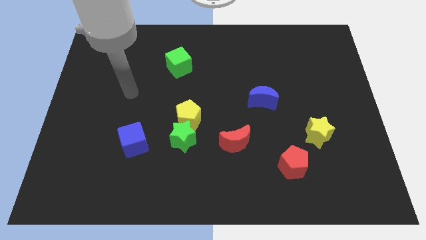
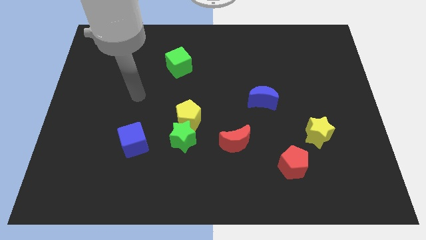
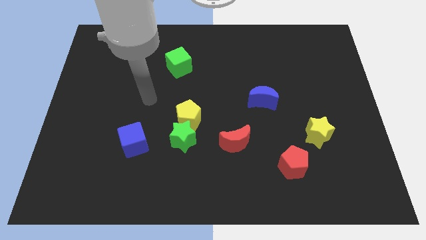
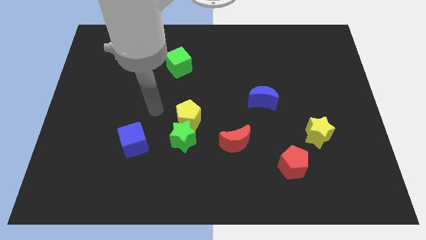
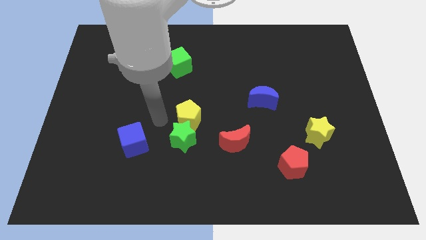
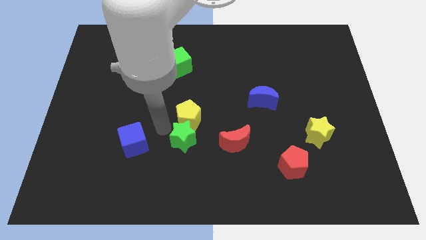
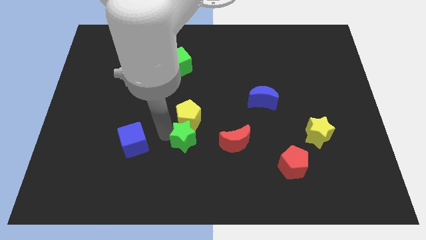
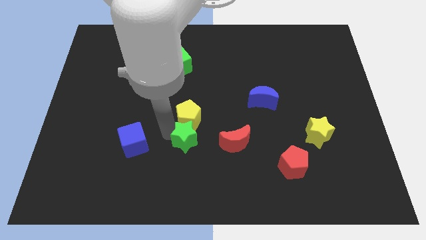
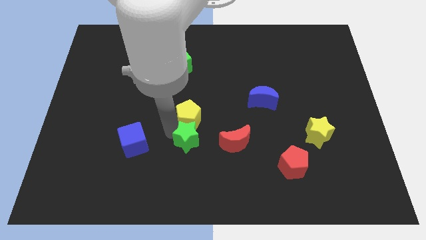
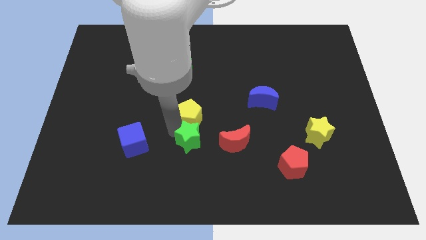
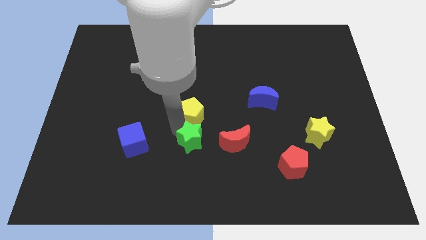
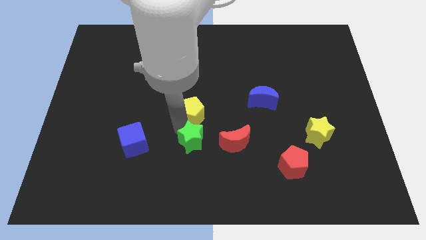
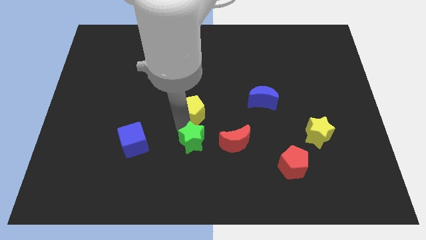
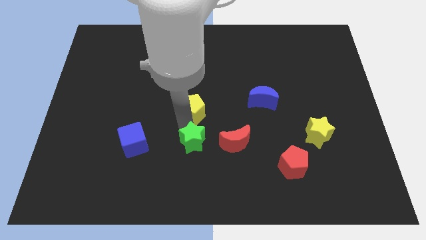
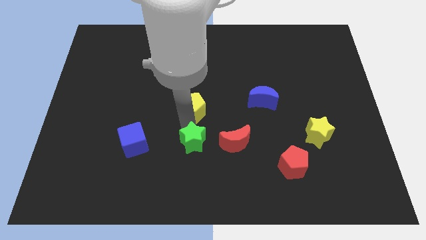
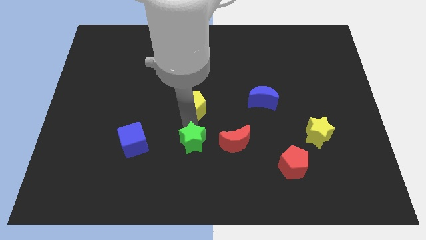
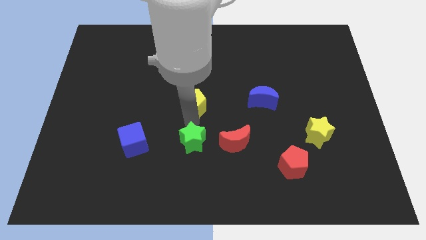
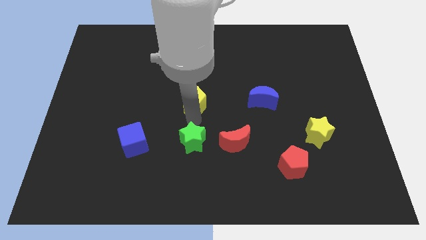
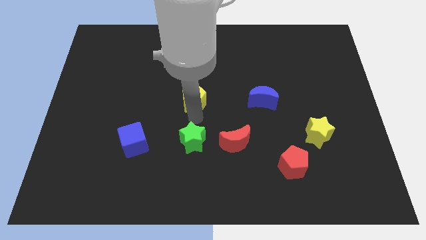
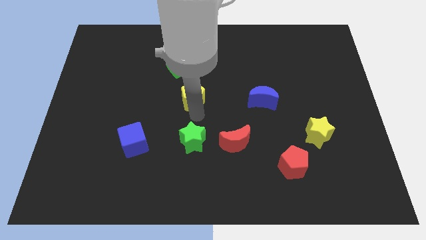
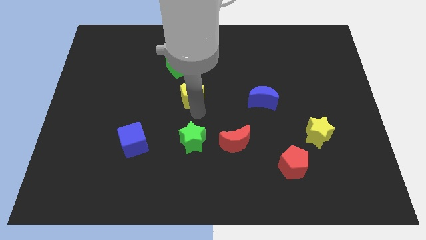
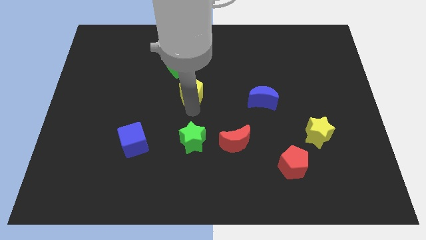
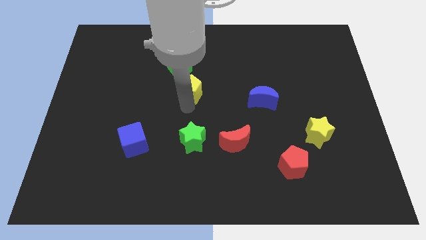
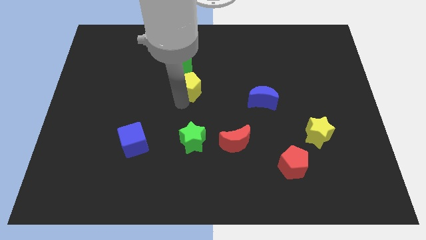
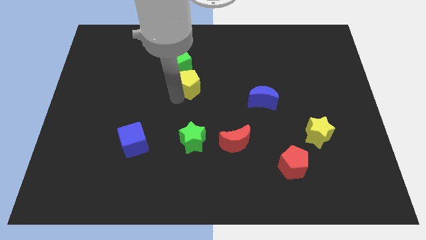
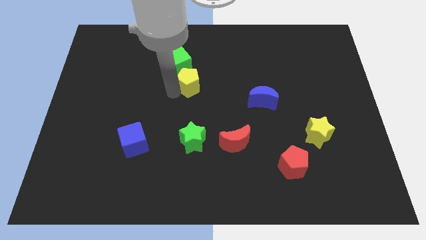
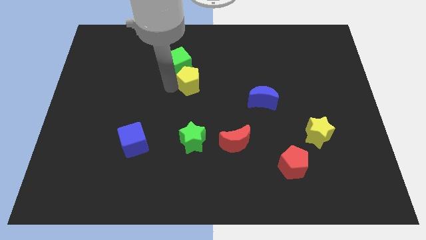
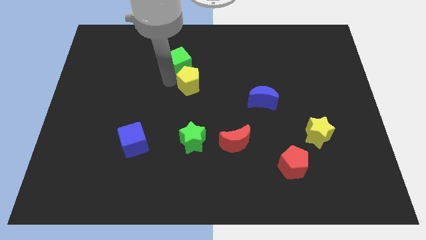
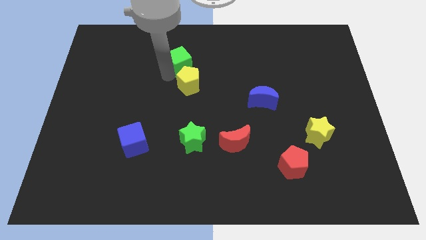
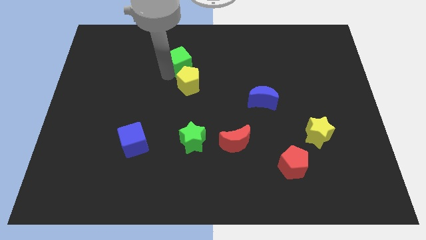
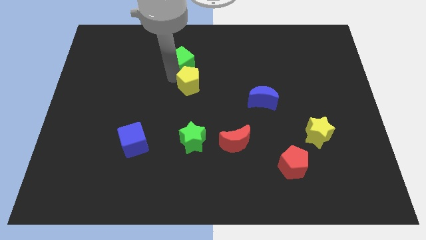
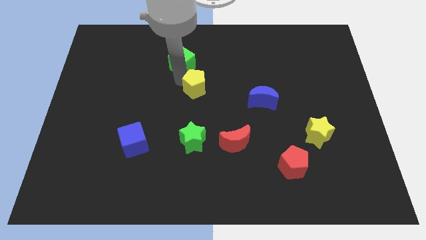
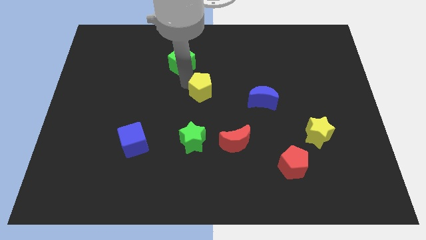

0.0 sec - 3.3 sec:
move the yellow pentagon slightly up and right diagonally

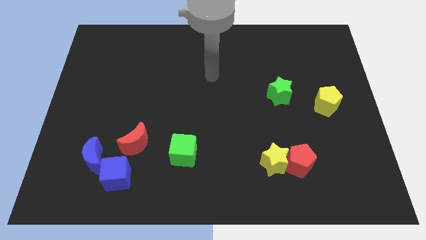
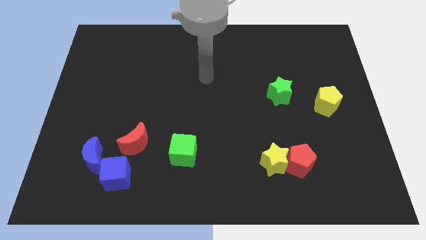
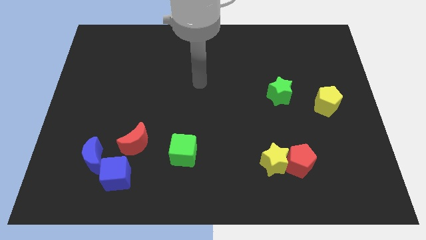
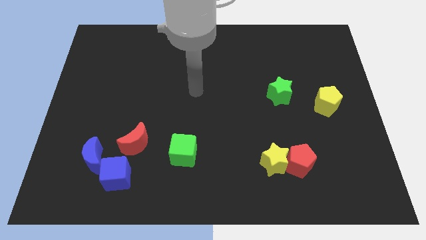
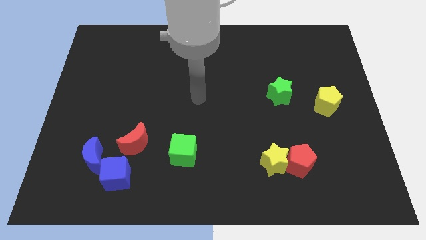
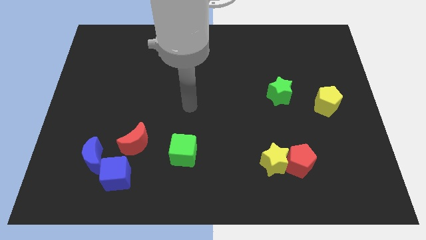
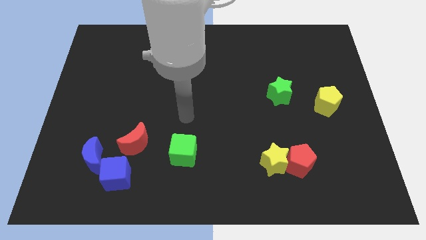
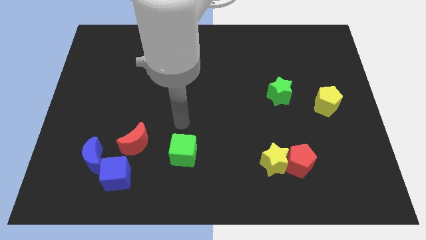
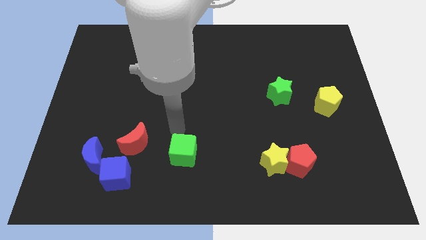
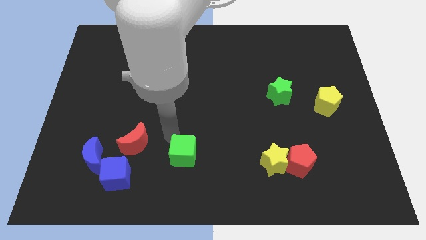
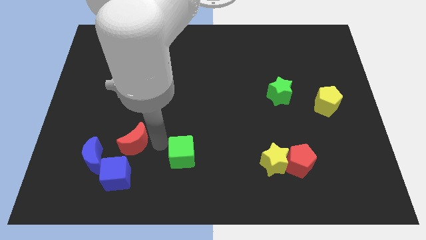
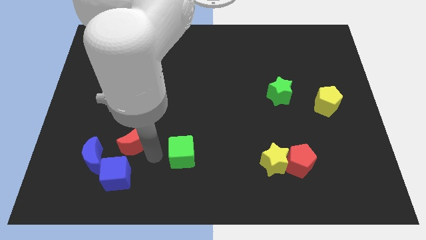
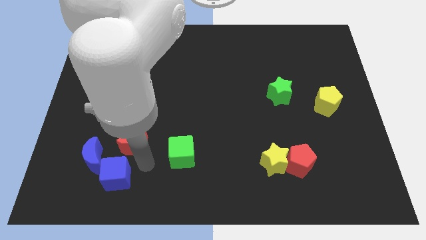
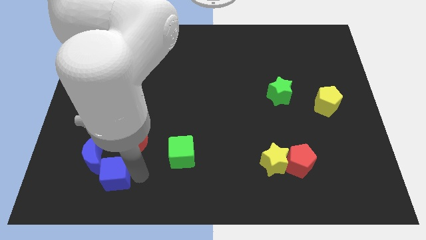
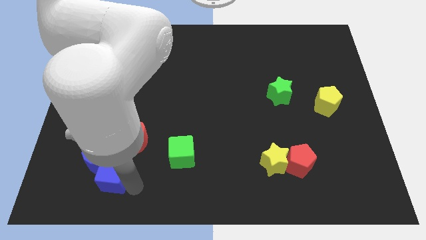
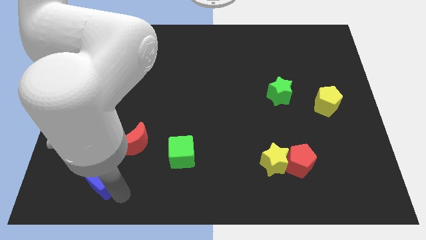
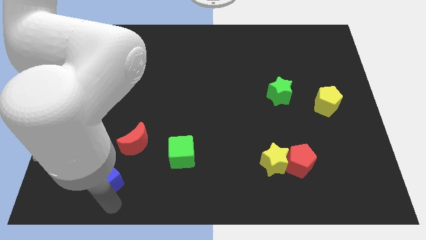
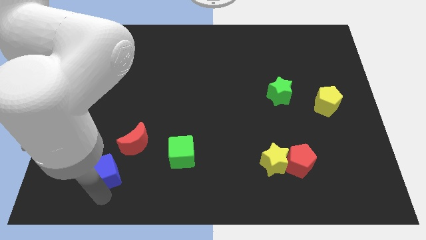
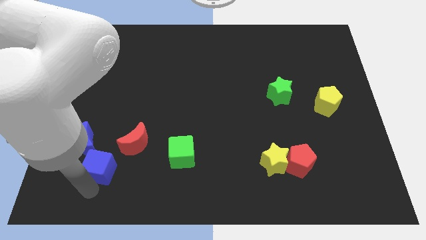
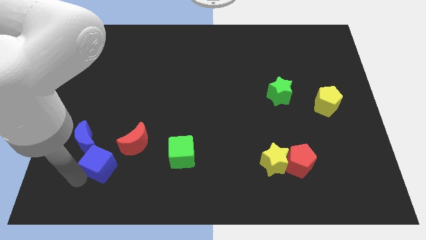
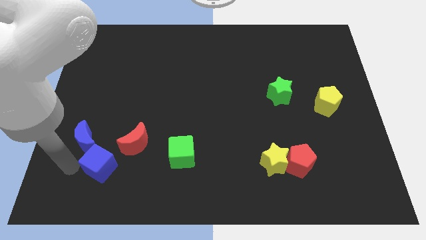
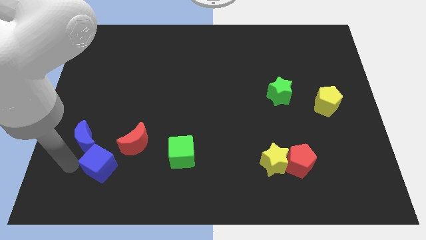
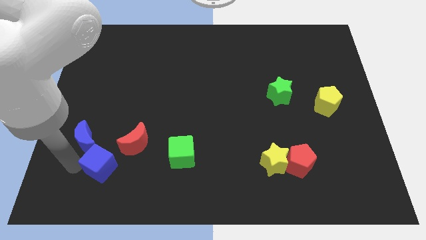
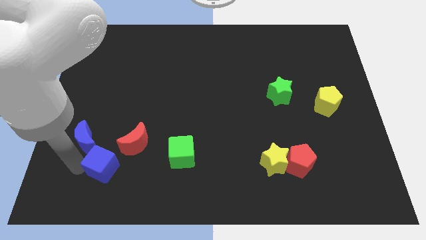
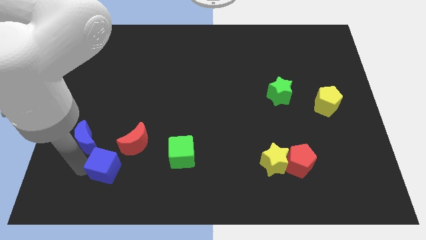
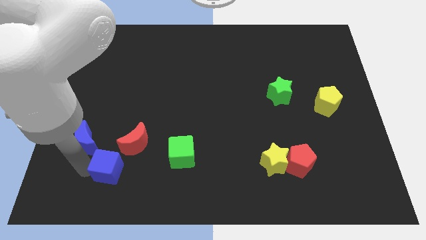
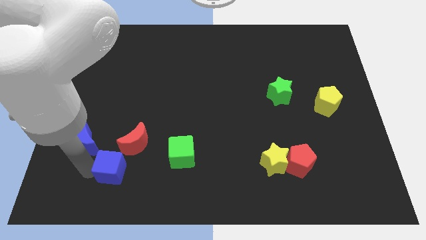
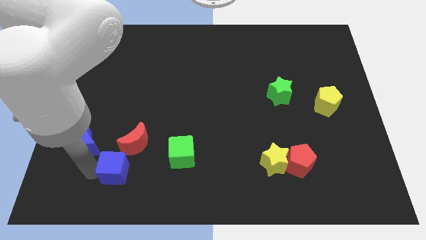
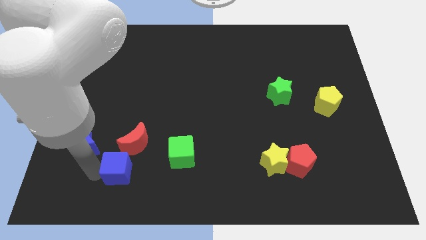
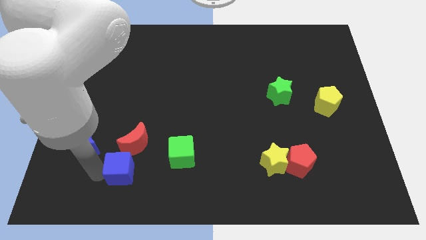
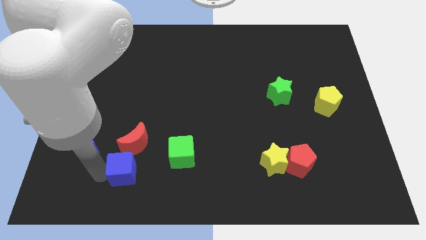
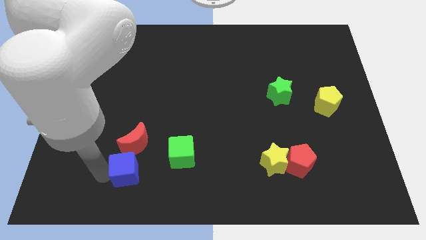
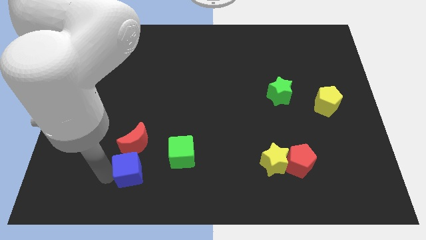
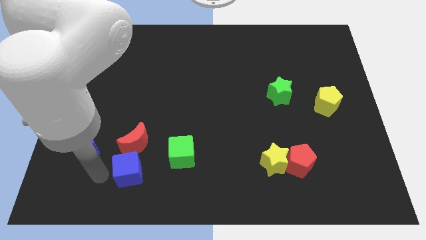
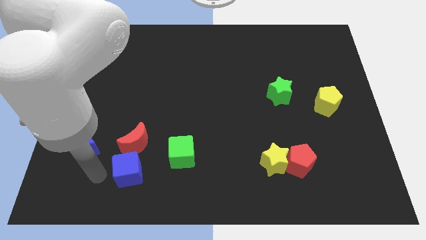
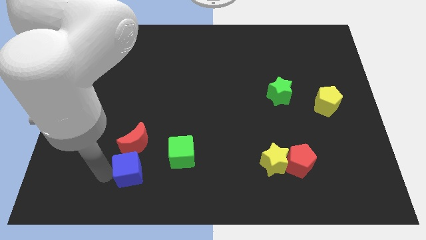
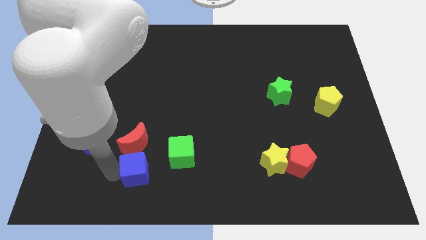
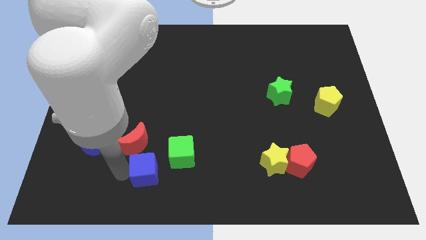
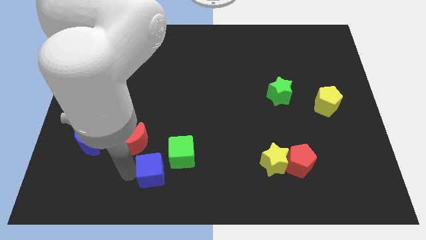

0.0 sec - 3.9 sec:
move the blue cube to the right a bit

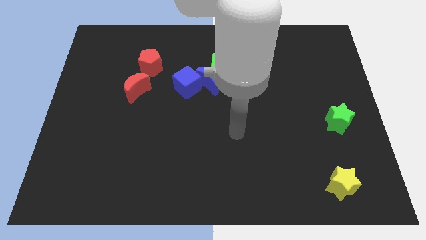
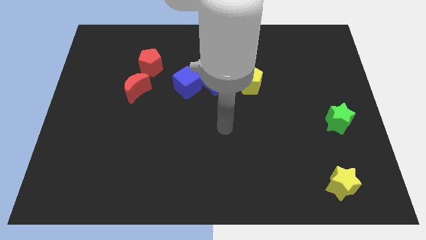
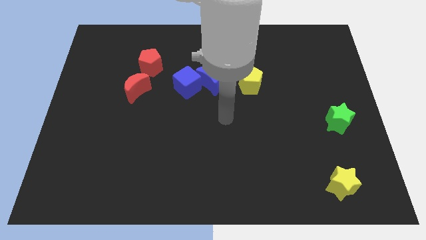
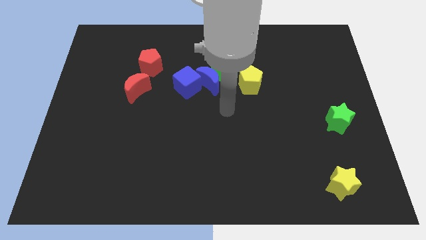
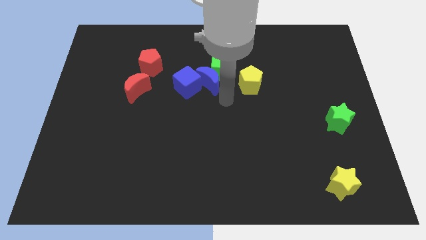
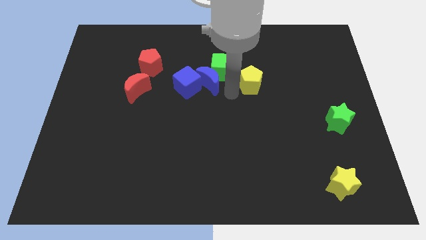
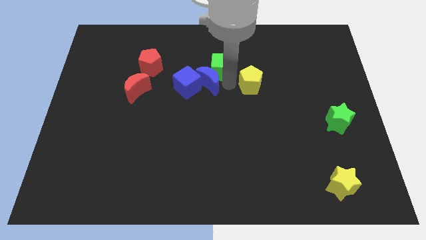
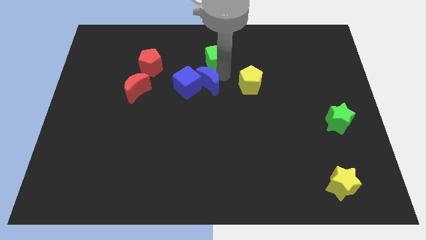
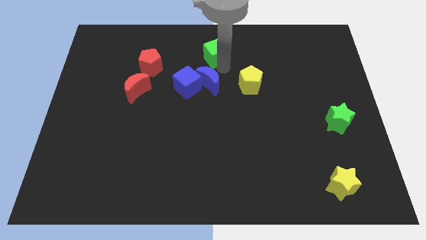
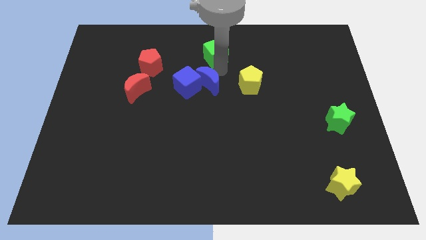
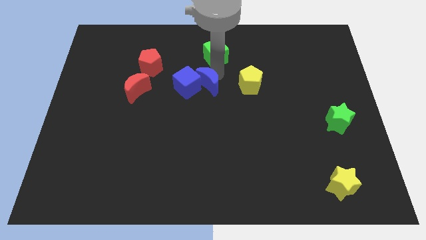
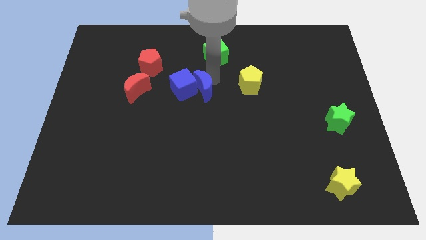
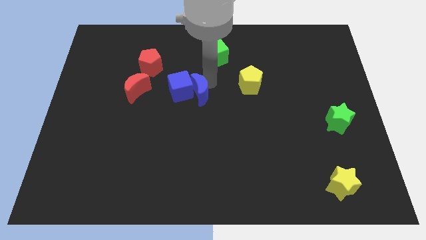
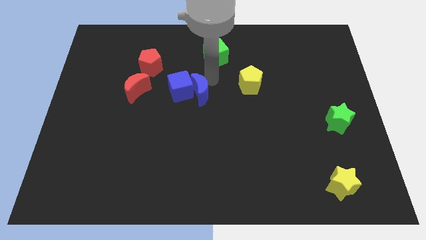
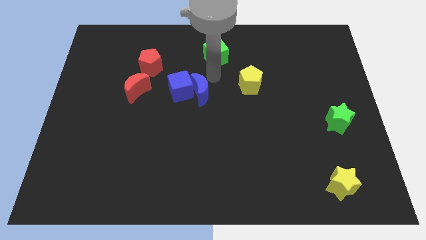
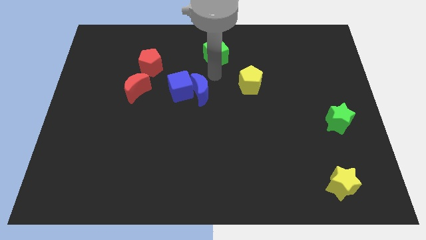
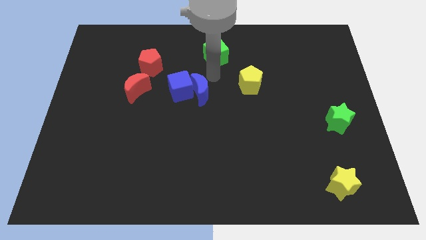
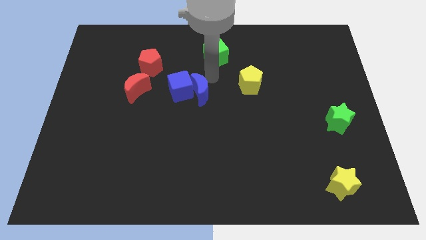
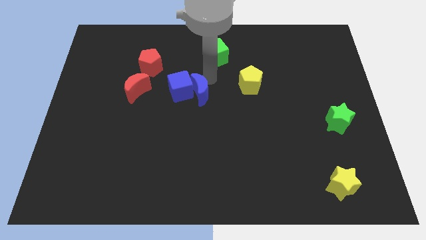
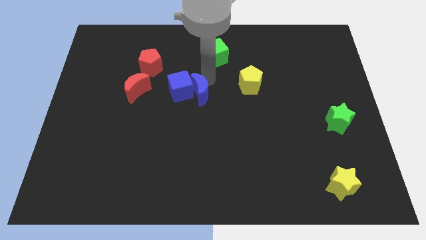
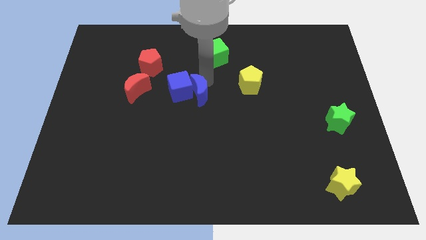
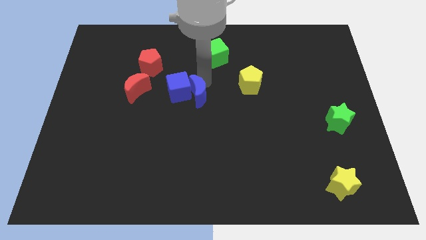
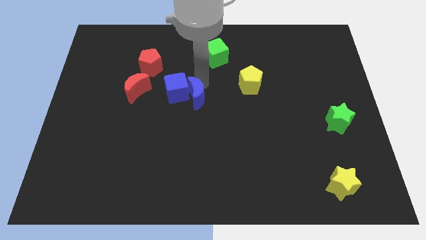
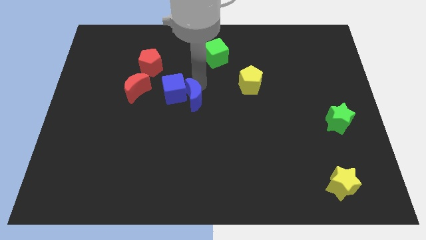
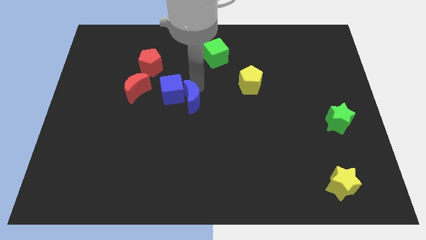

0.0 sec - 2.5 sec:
slightly move the blue moon downwards and to the left diagonally
